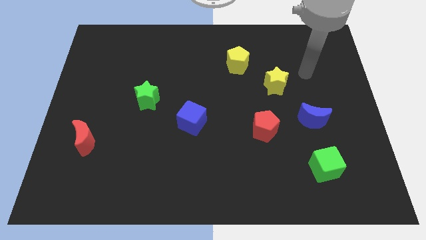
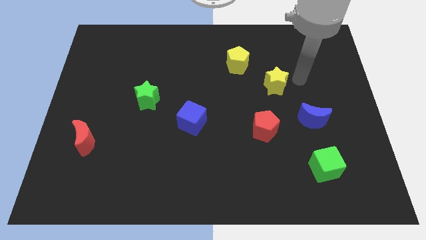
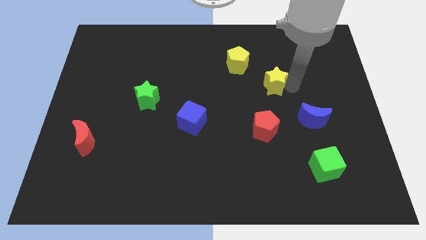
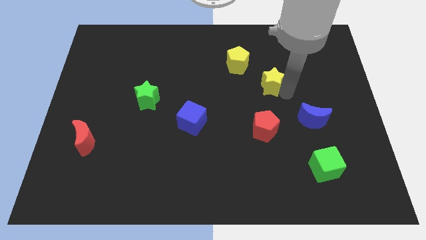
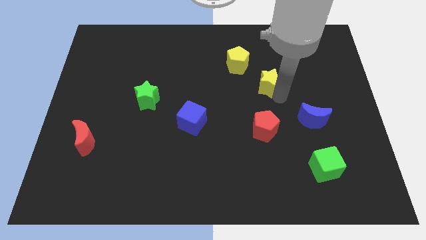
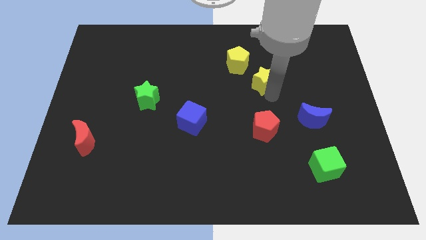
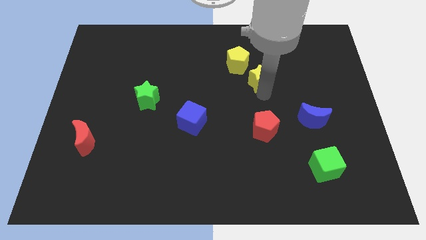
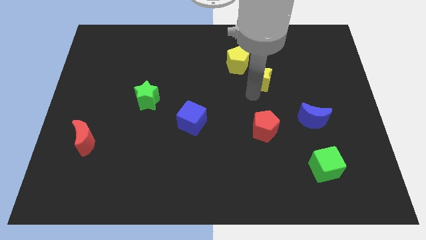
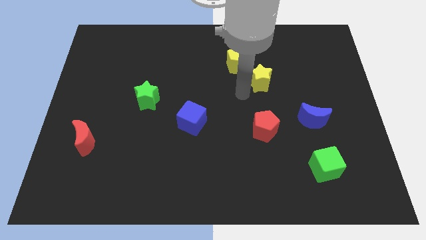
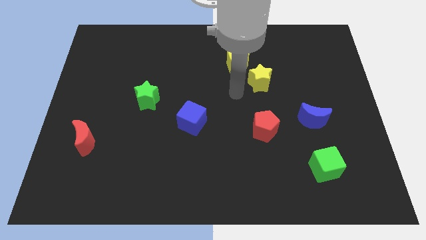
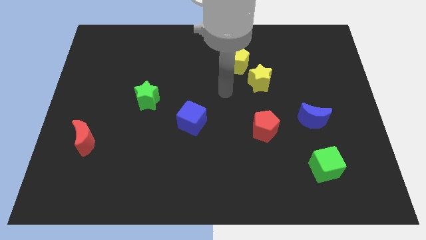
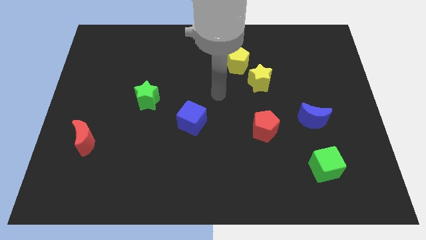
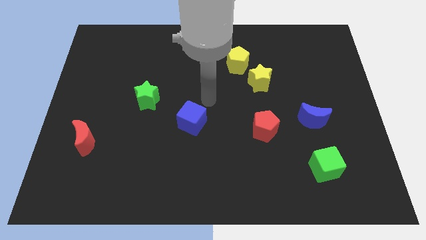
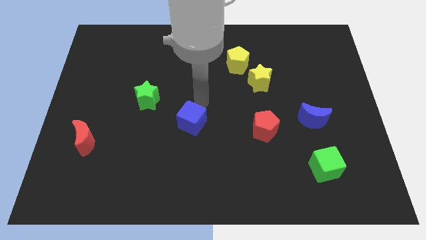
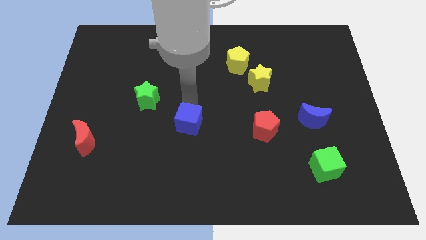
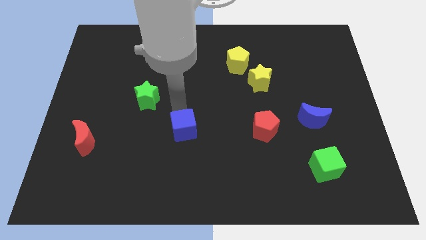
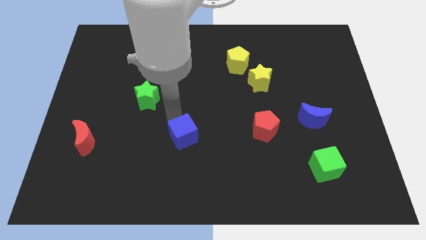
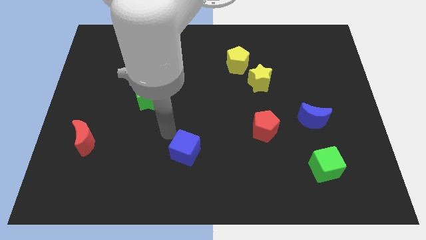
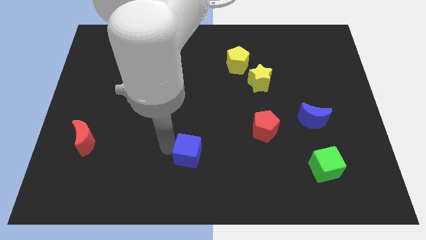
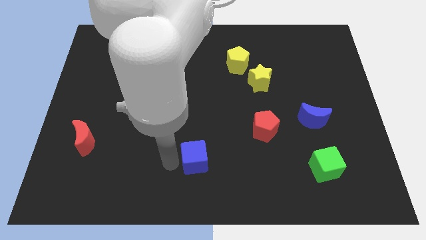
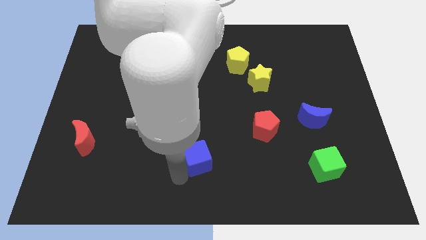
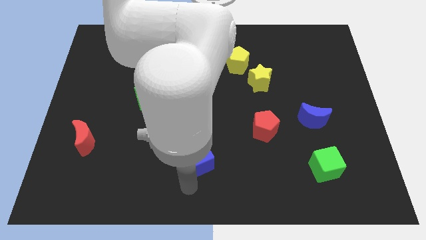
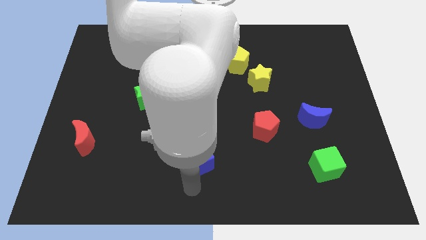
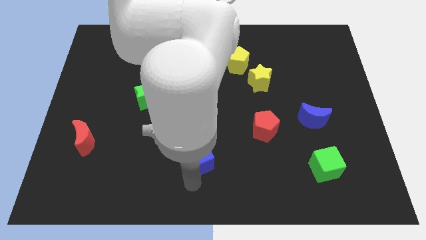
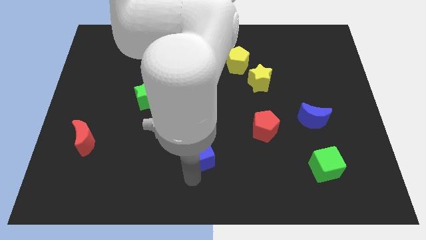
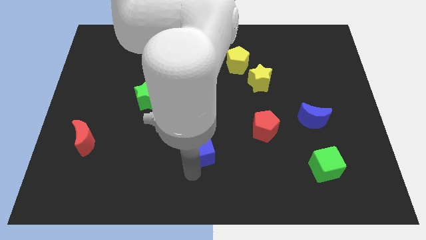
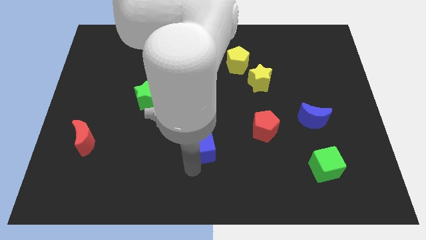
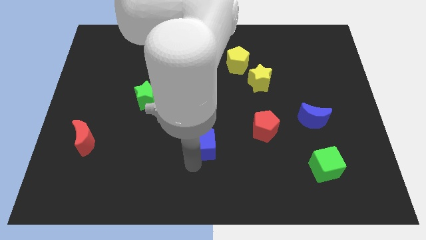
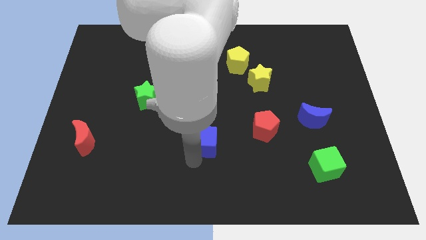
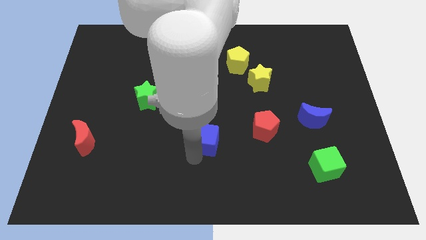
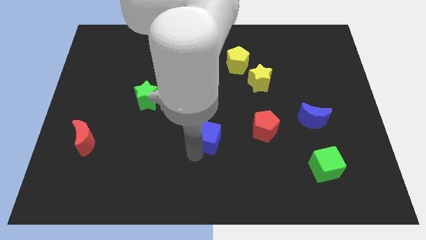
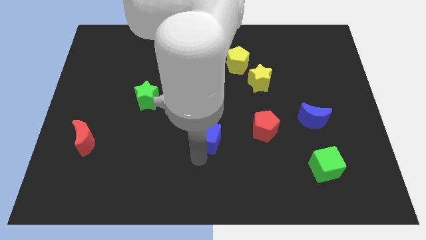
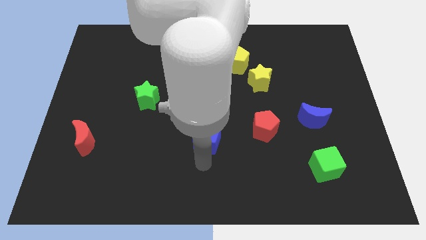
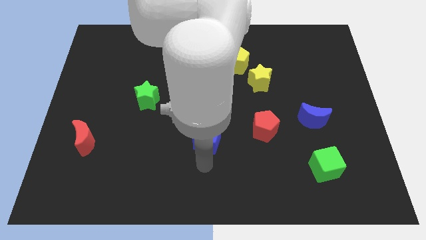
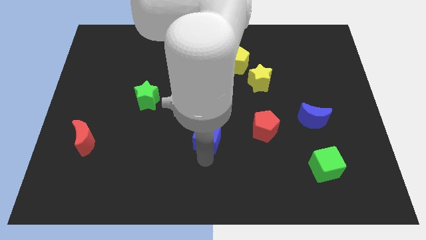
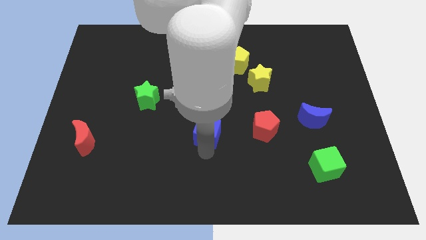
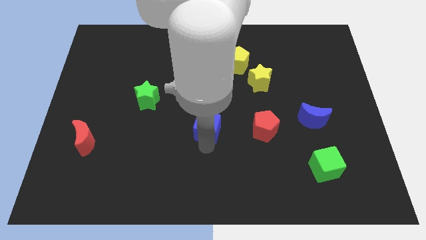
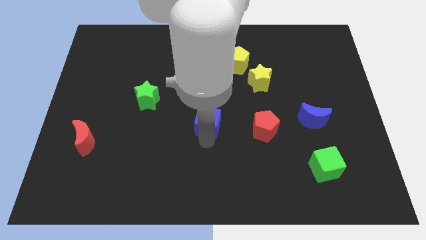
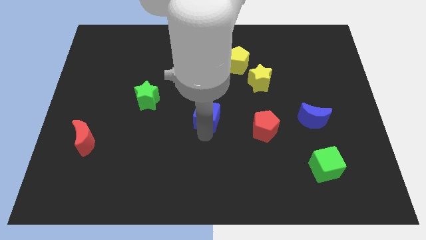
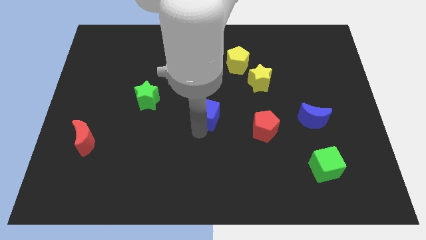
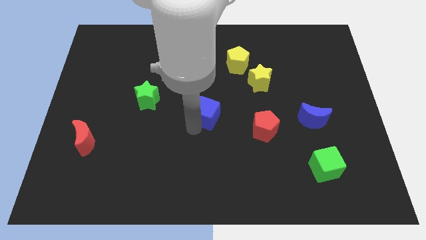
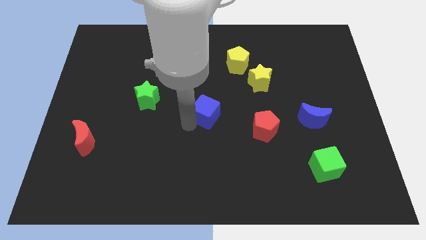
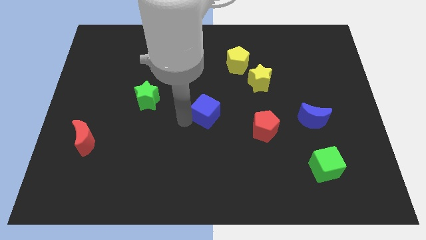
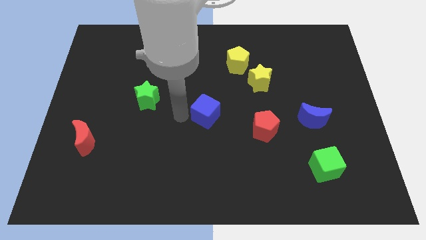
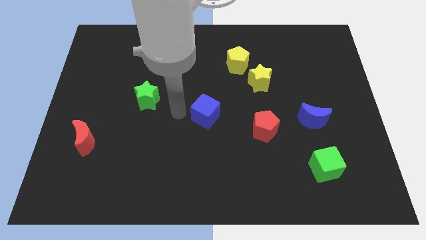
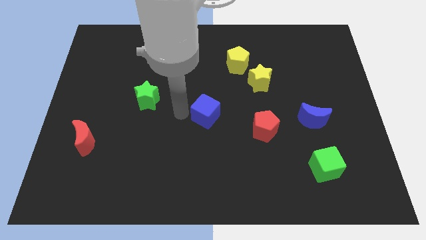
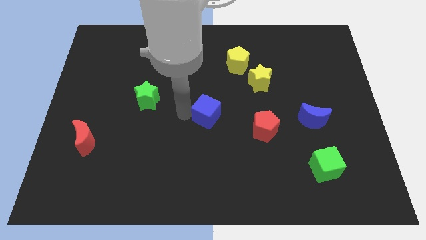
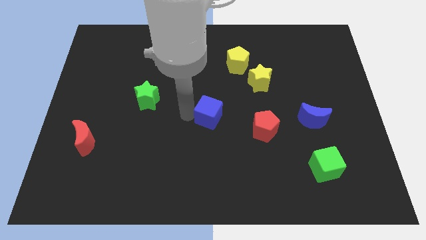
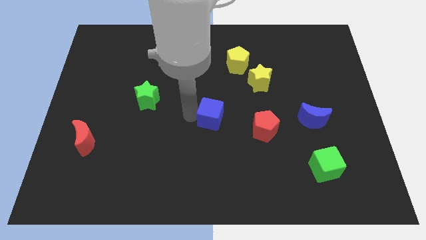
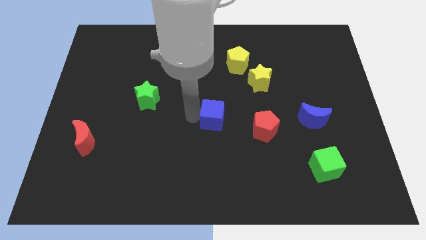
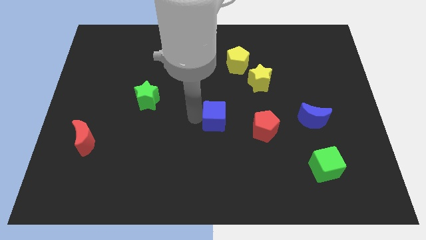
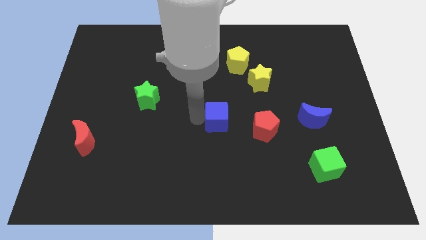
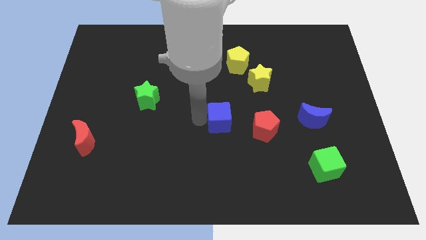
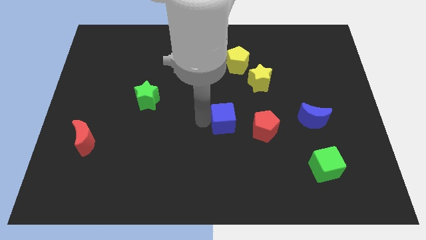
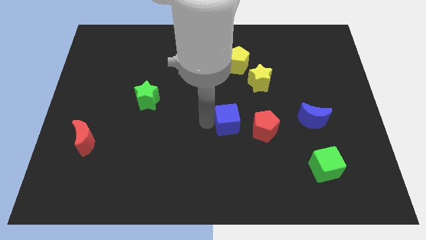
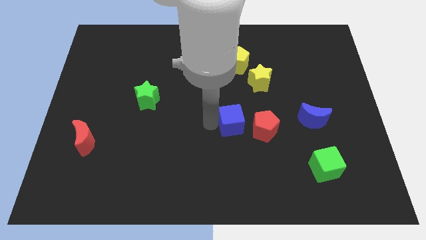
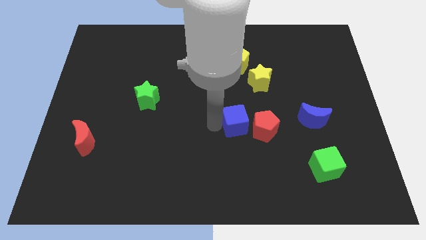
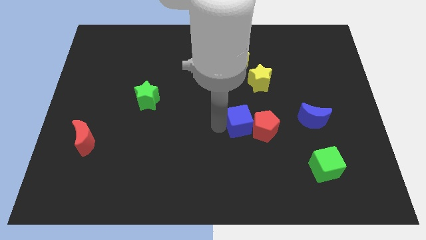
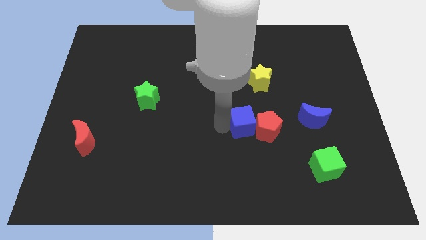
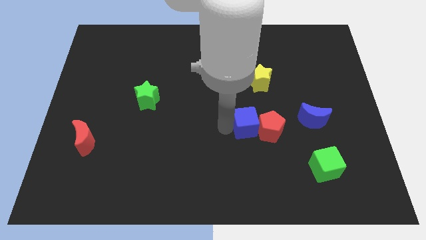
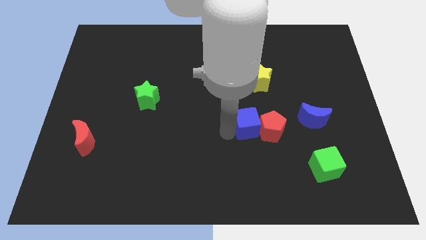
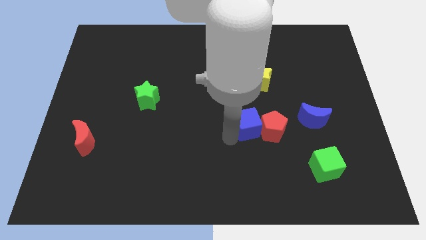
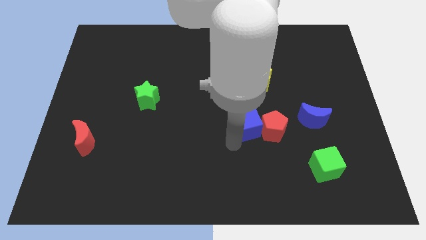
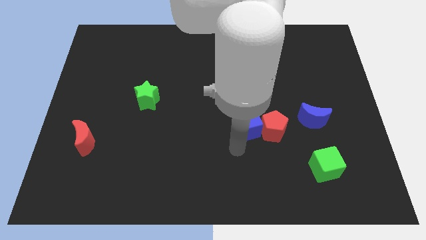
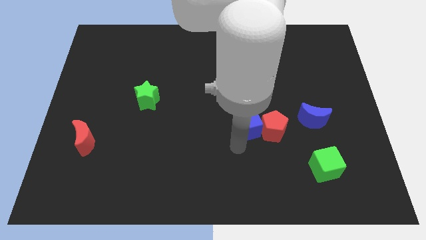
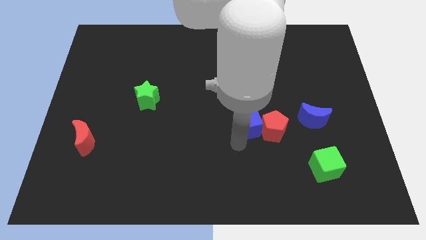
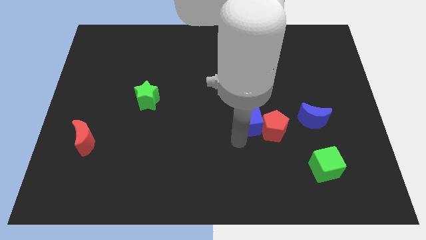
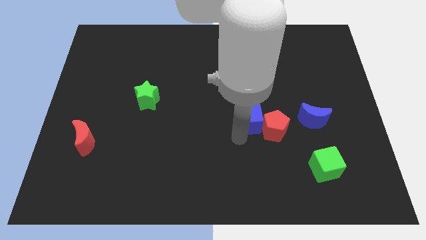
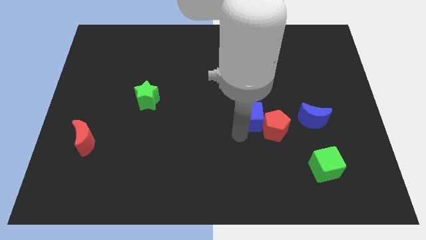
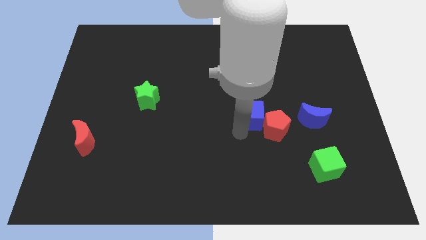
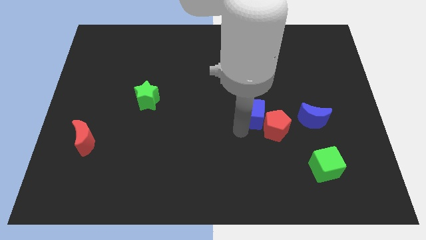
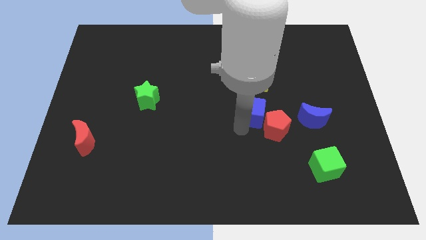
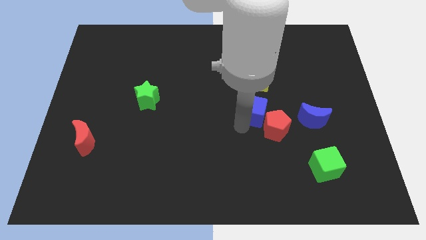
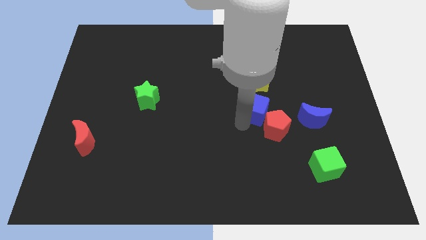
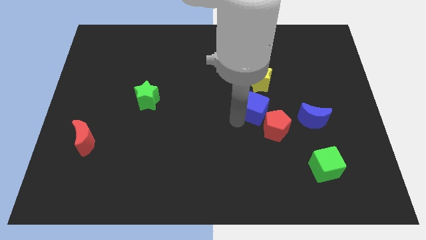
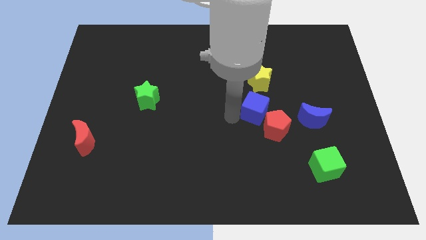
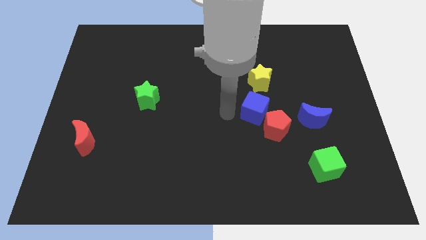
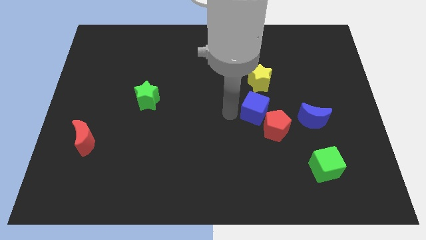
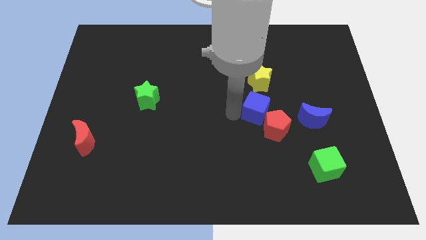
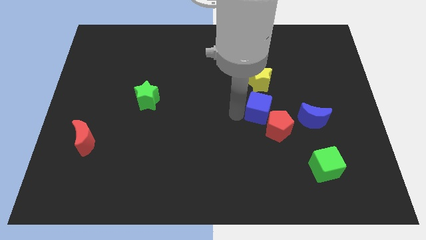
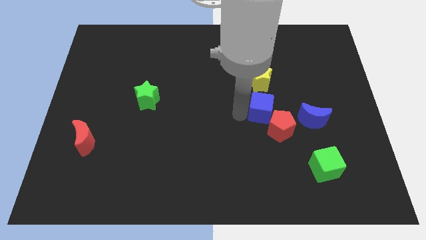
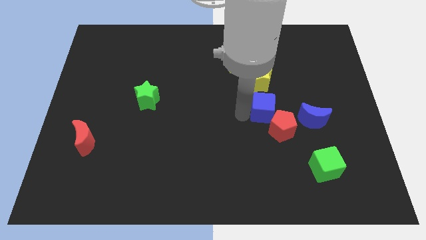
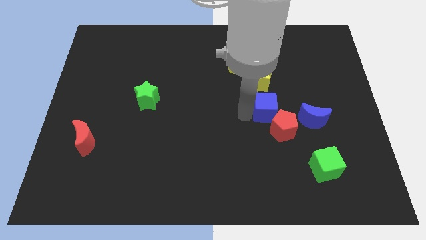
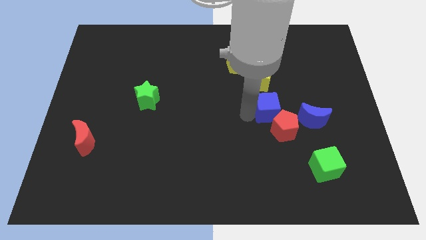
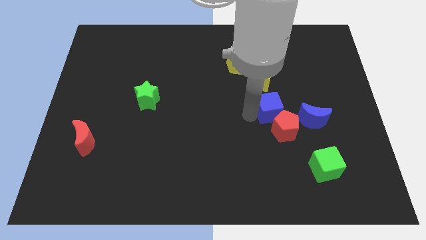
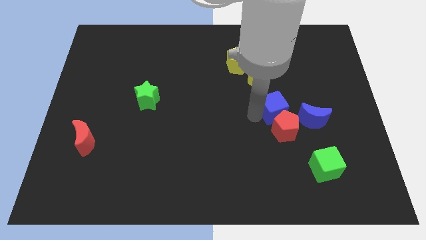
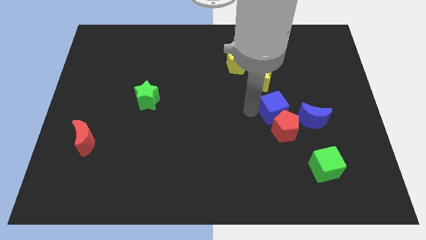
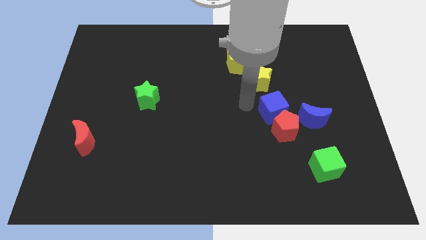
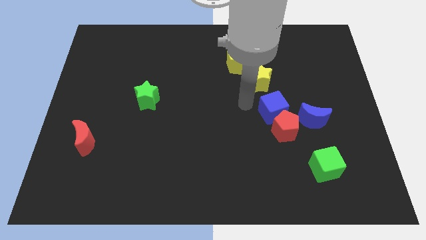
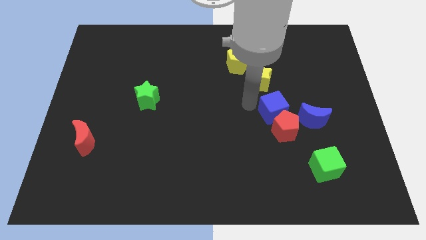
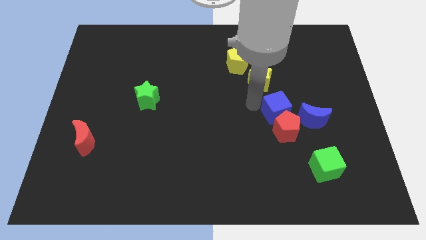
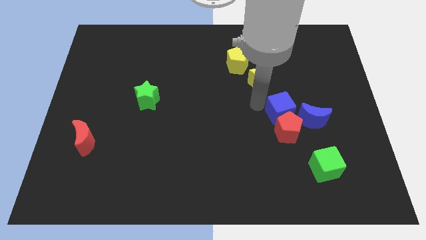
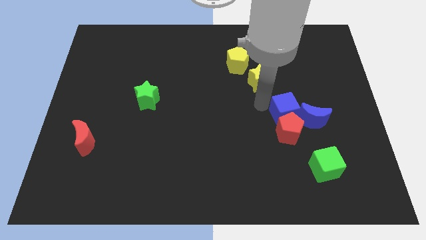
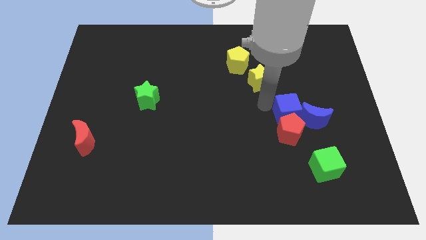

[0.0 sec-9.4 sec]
move the blue cube close to the blue moon
